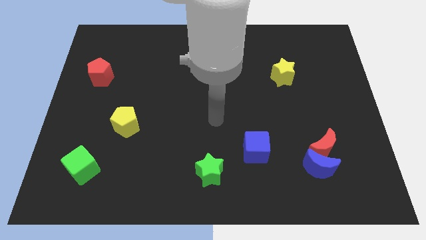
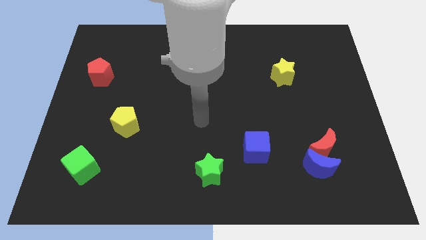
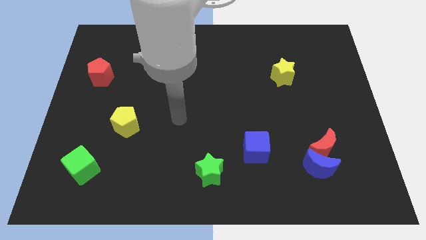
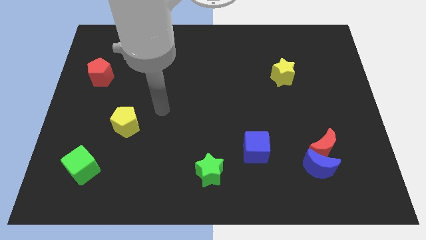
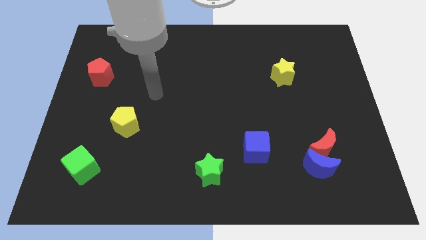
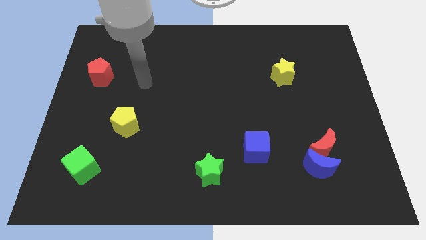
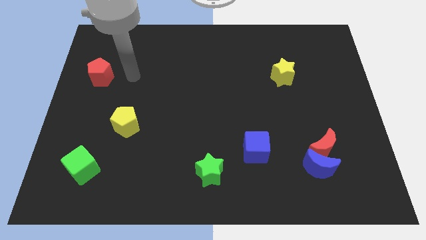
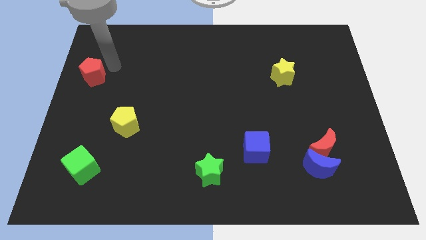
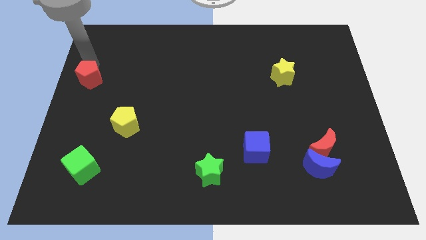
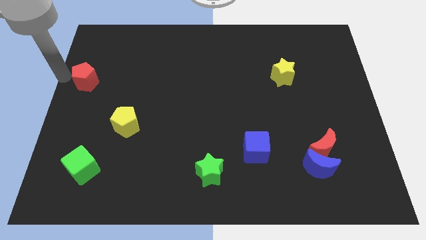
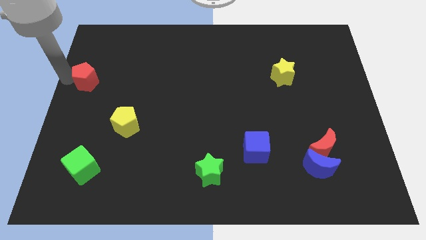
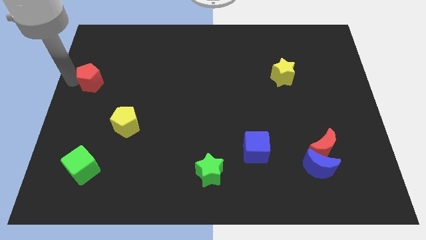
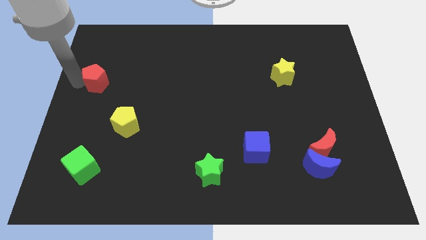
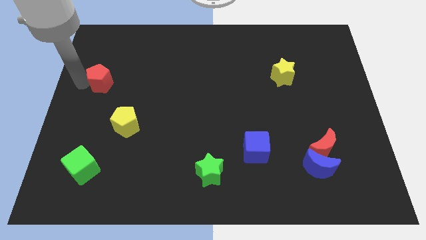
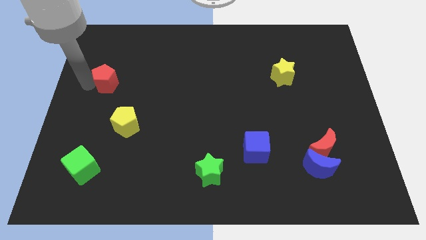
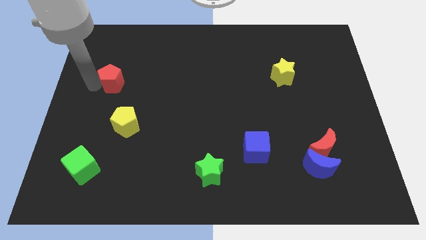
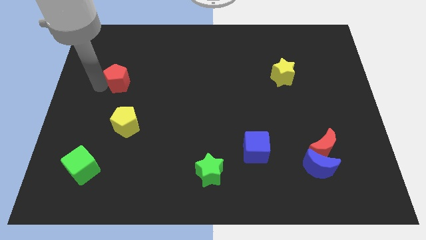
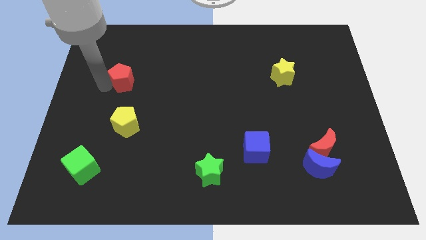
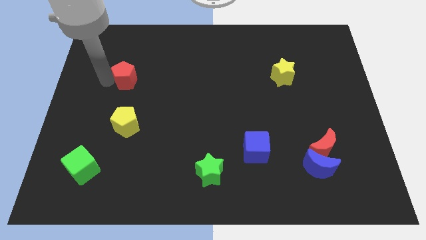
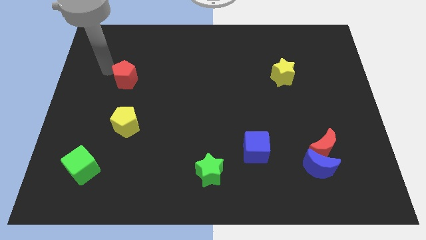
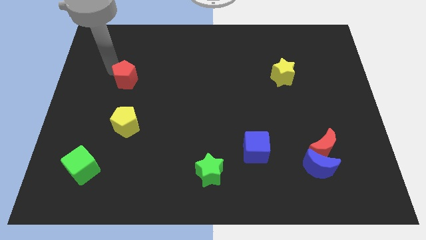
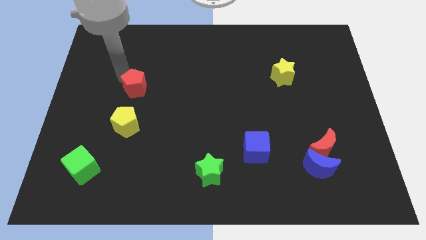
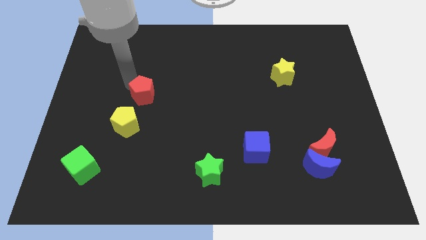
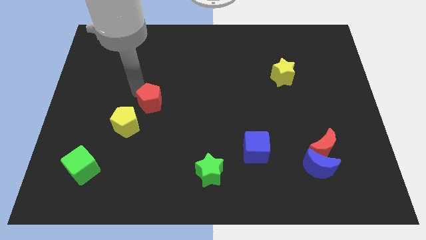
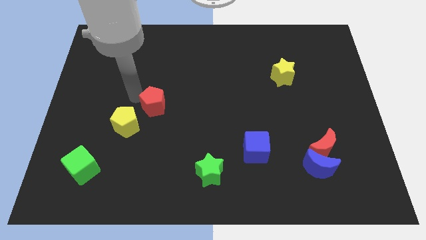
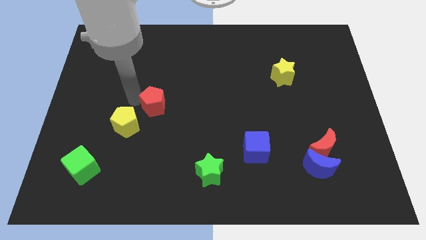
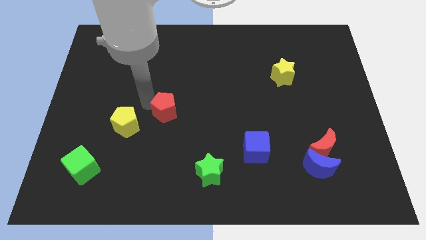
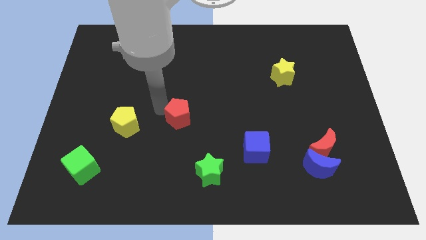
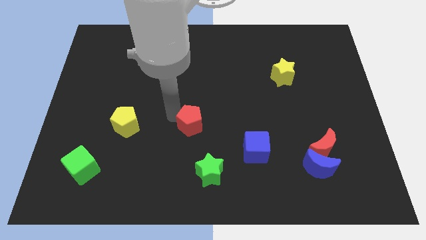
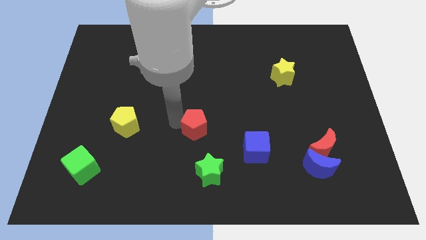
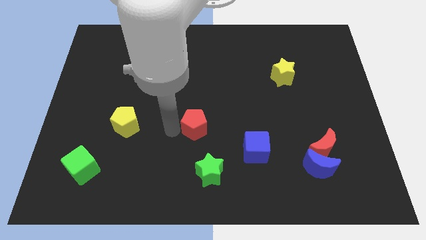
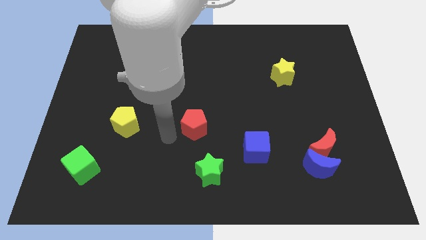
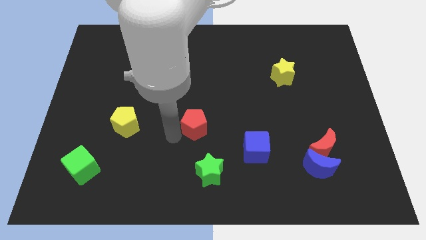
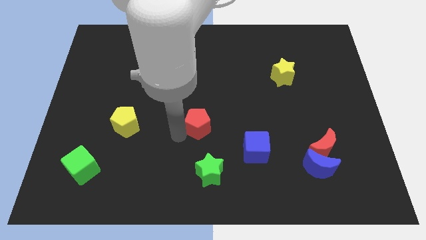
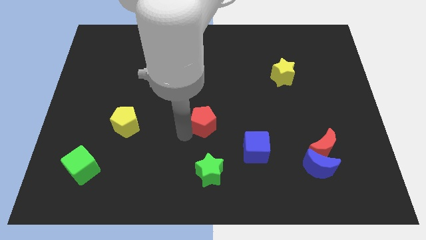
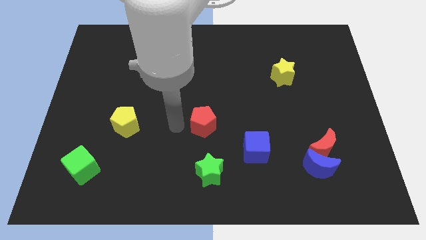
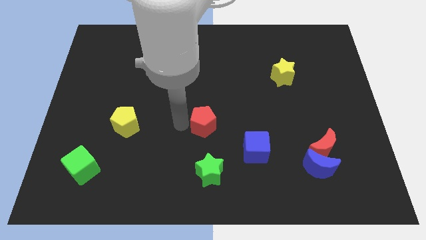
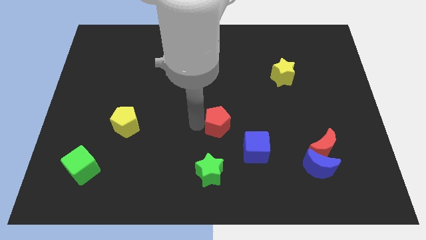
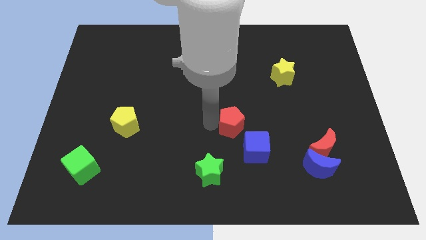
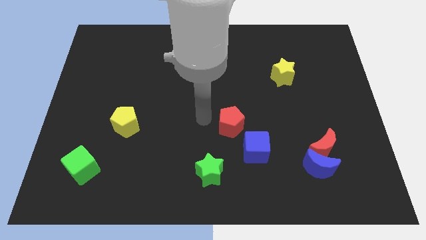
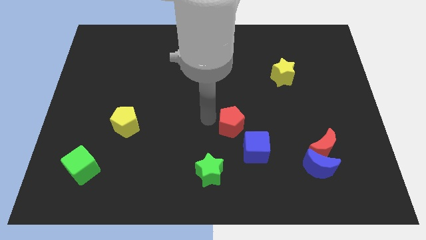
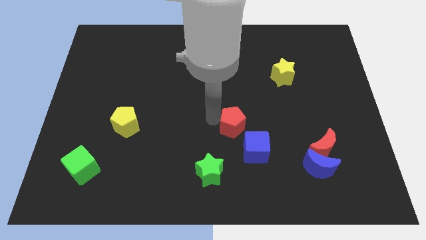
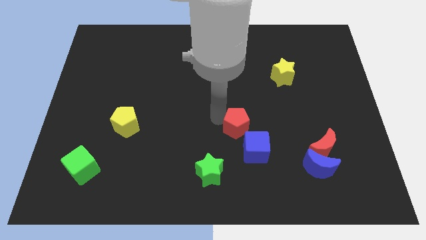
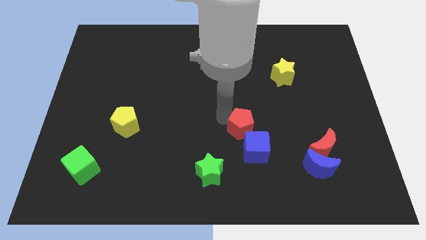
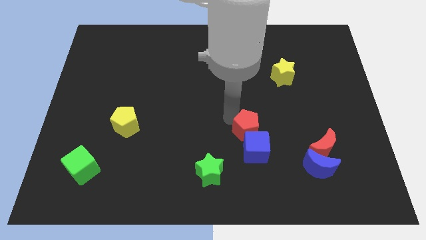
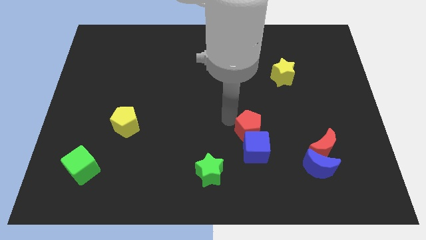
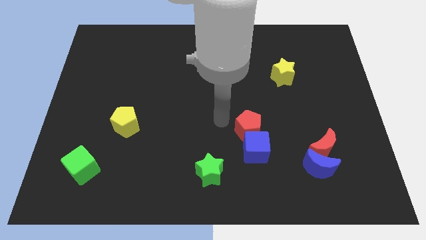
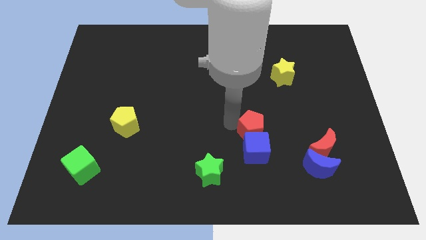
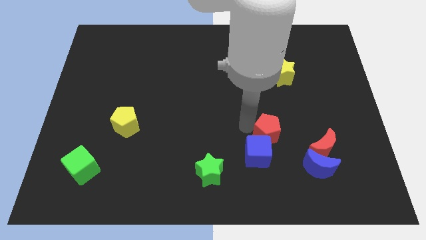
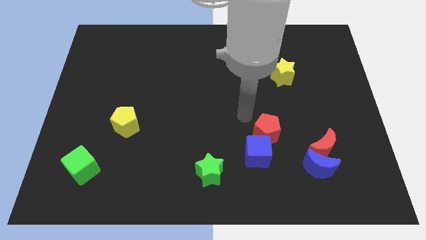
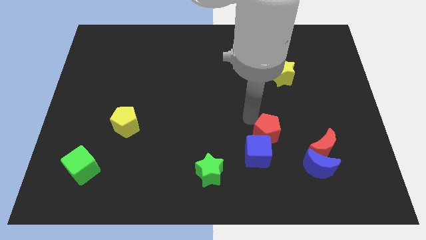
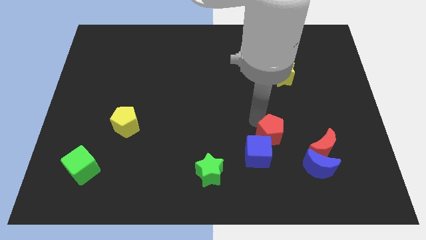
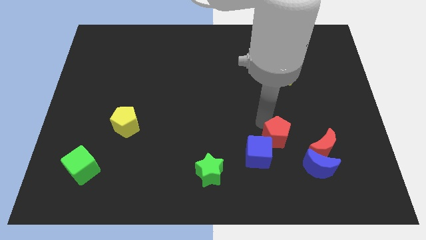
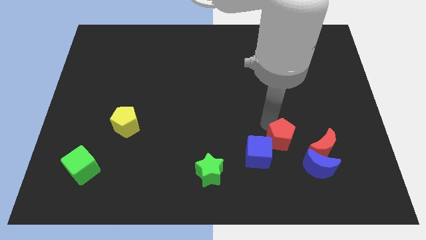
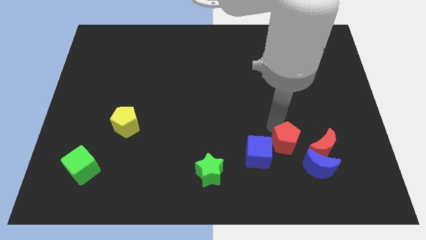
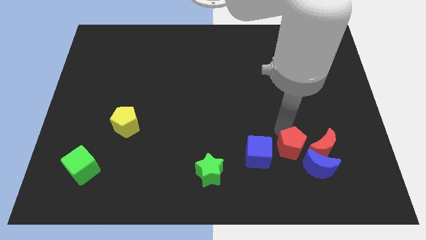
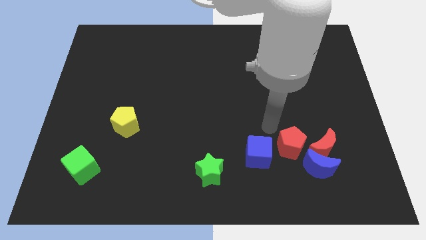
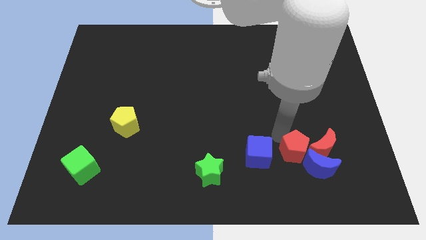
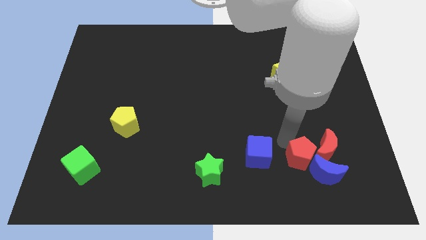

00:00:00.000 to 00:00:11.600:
push the red pentagon next to the blue moon

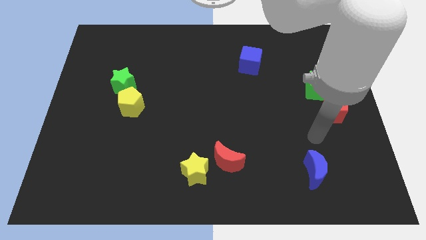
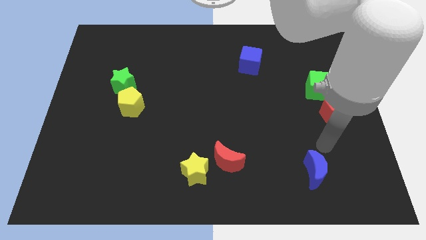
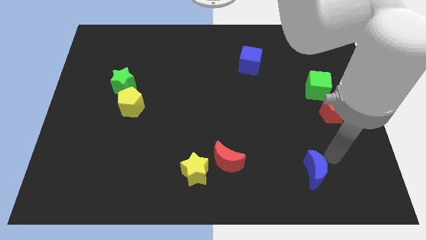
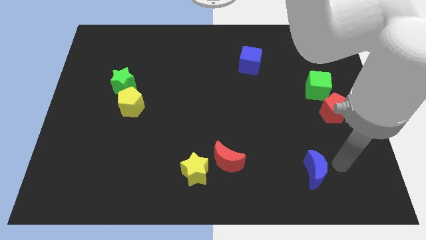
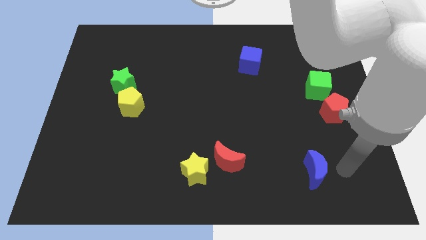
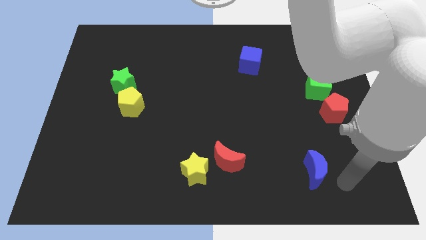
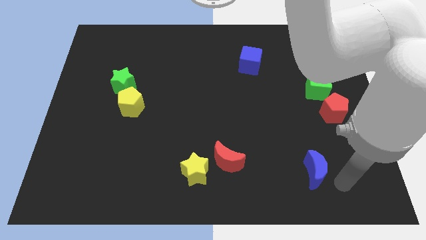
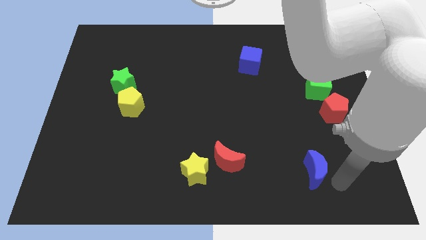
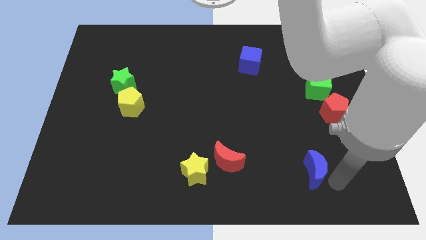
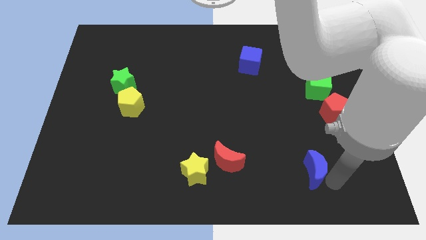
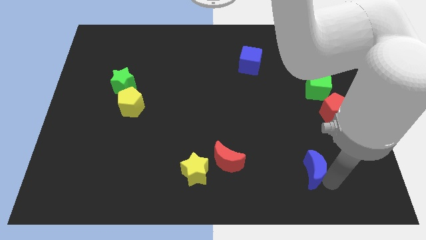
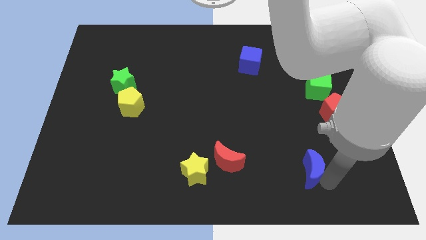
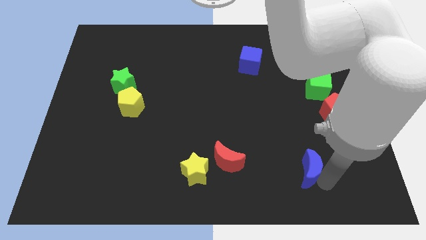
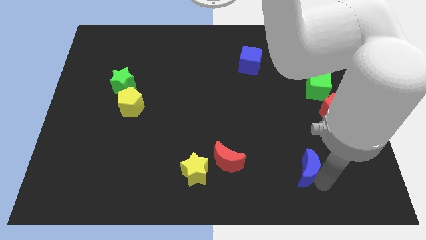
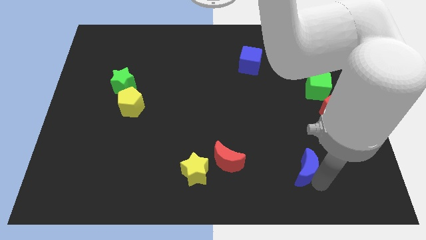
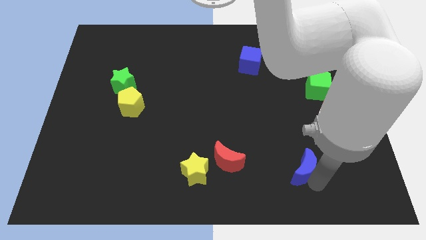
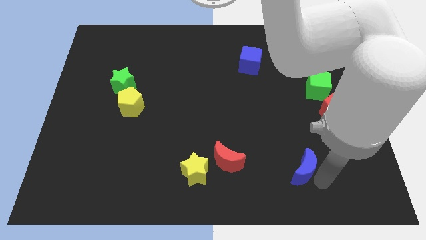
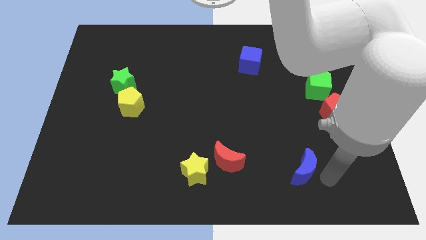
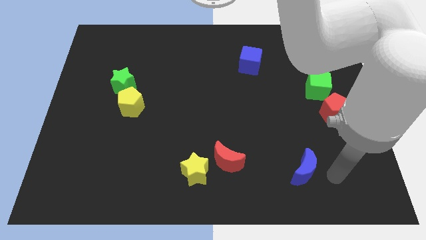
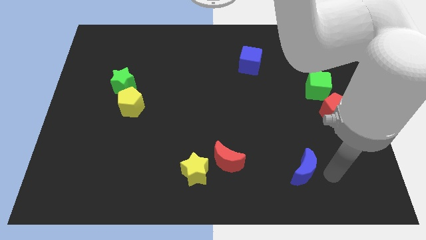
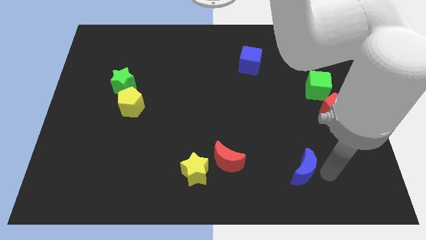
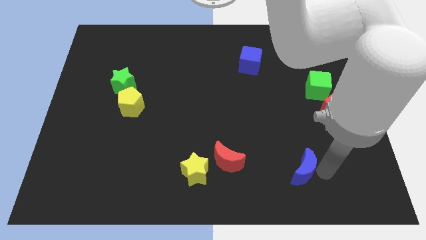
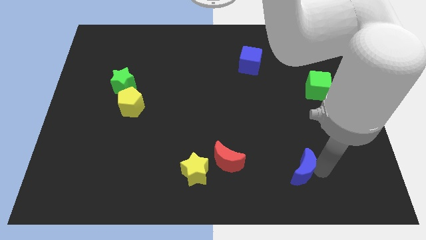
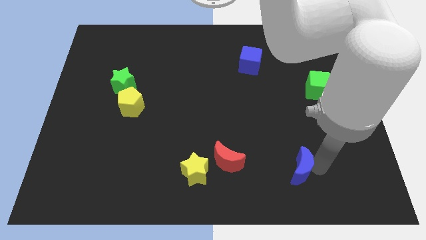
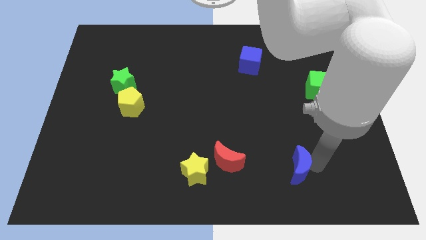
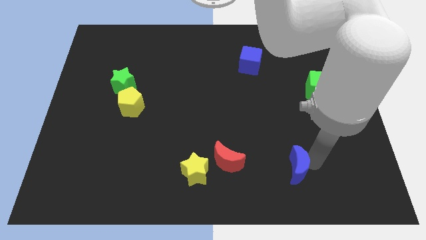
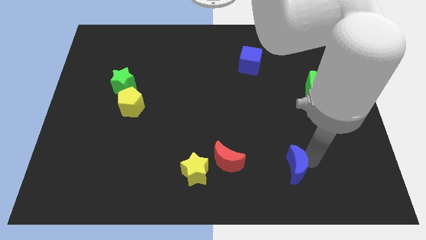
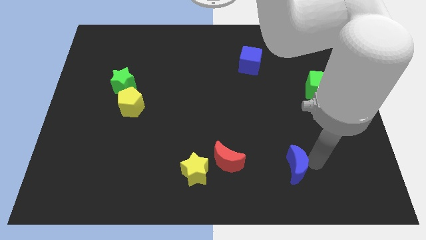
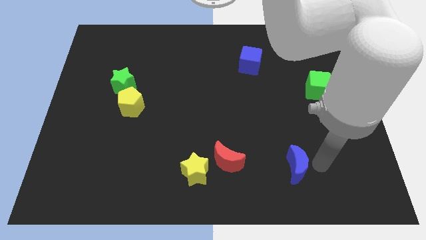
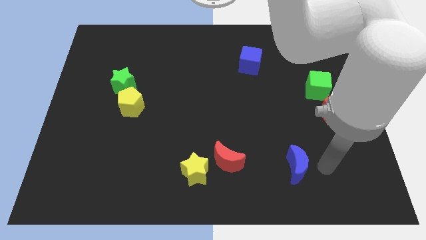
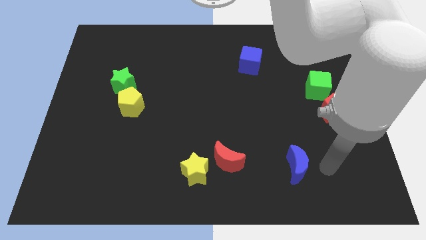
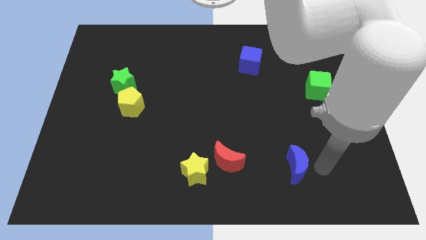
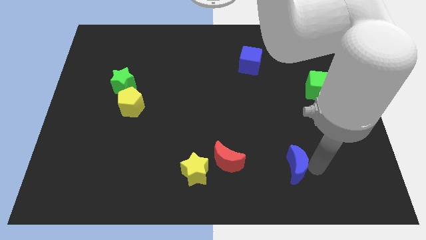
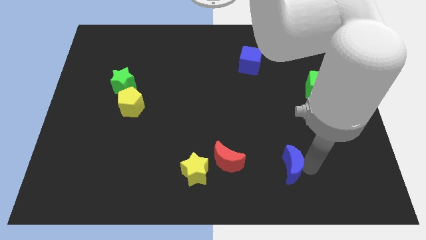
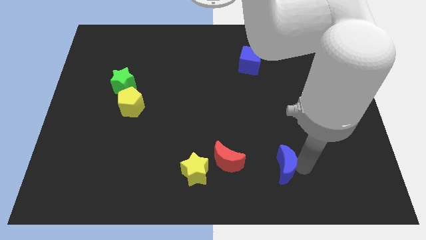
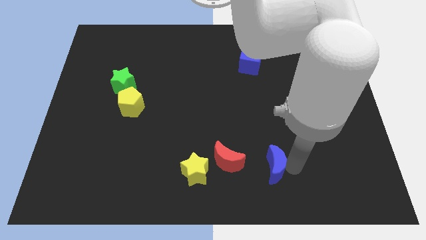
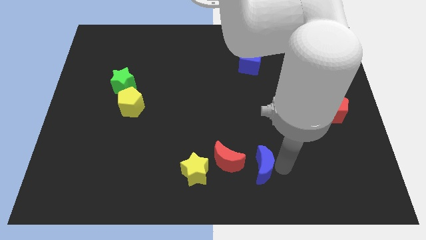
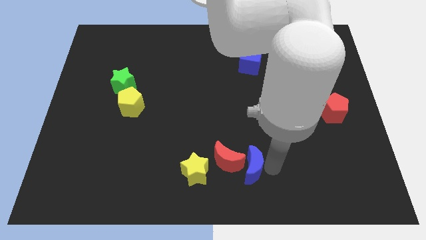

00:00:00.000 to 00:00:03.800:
move the blue moon towards the red moon
